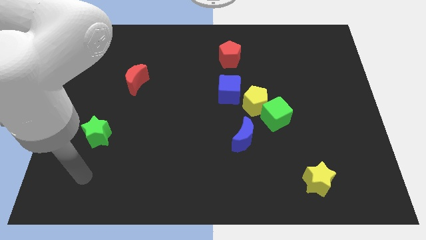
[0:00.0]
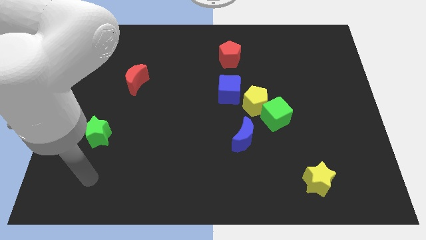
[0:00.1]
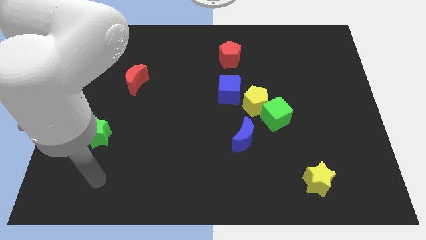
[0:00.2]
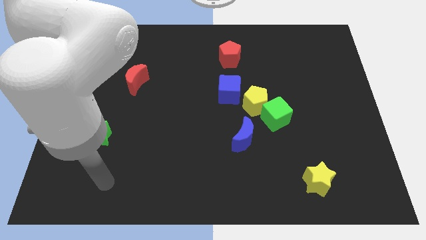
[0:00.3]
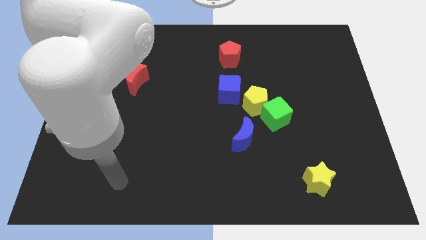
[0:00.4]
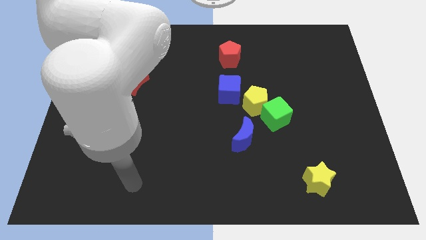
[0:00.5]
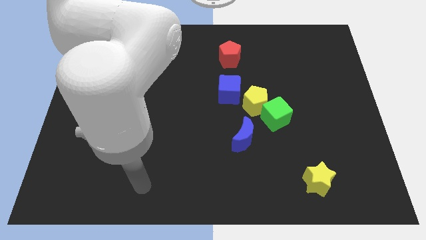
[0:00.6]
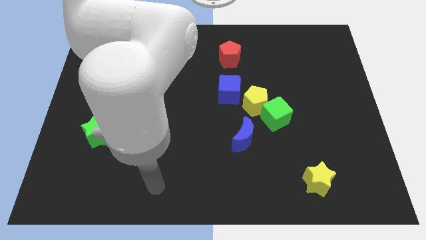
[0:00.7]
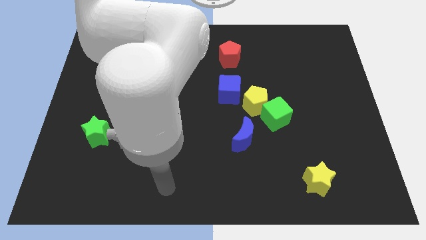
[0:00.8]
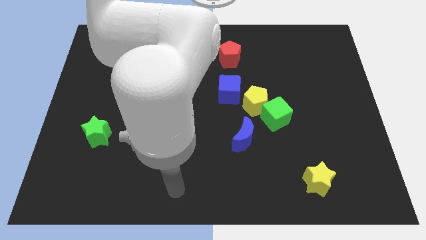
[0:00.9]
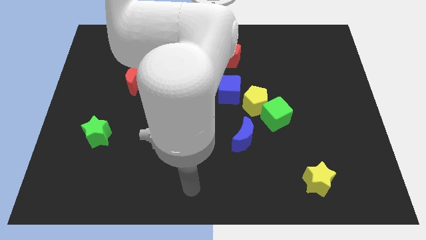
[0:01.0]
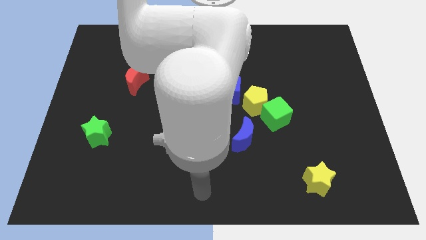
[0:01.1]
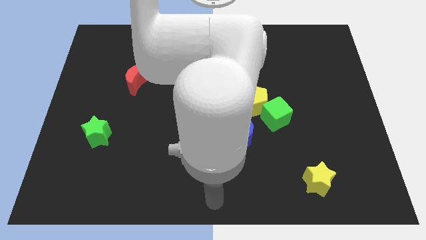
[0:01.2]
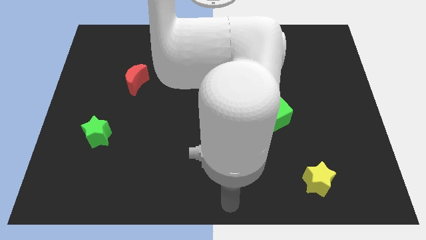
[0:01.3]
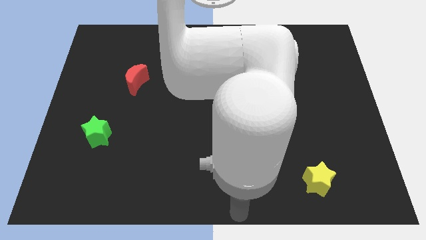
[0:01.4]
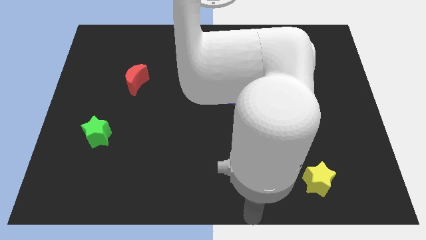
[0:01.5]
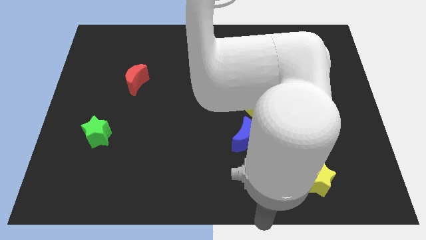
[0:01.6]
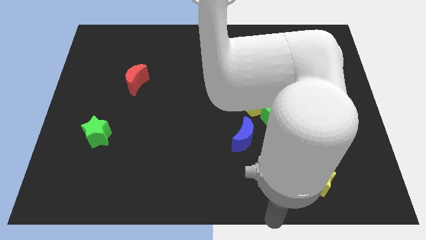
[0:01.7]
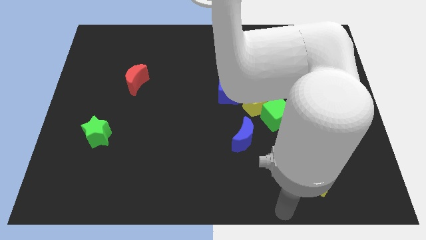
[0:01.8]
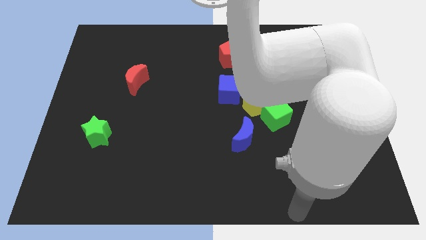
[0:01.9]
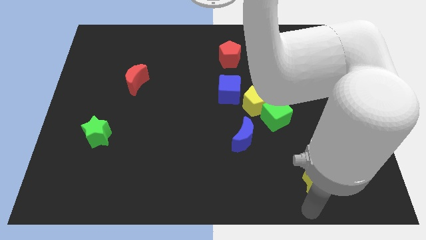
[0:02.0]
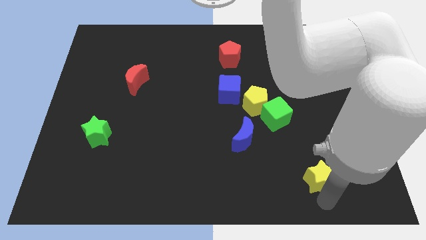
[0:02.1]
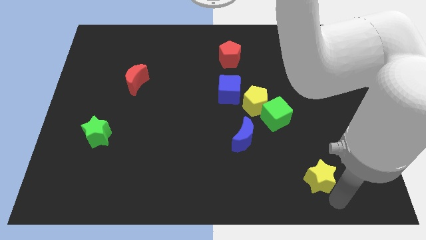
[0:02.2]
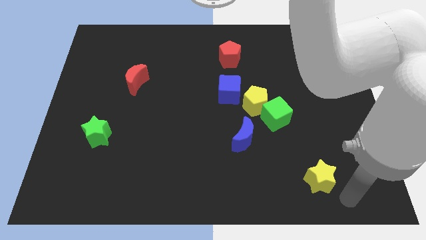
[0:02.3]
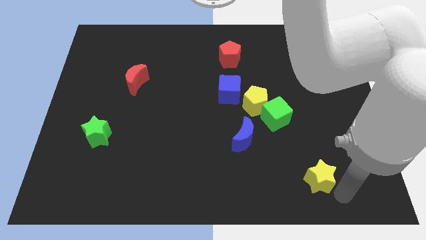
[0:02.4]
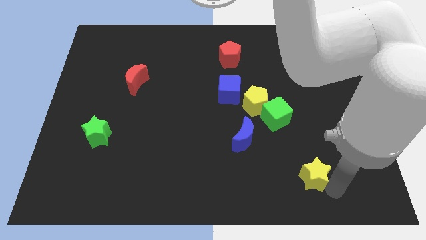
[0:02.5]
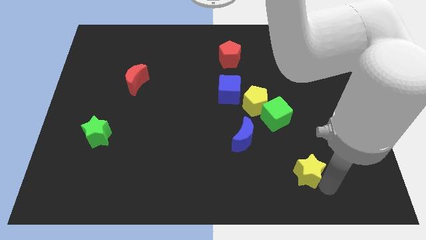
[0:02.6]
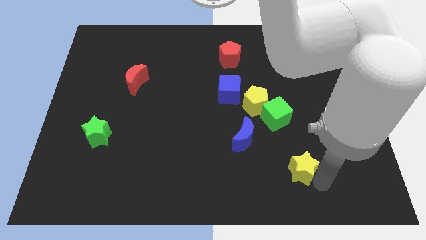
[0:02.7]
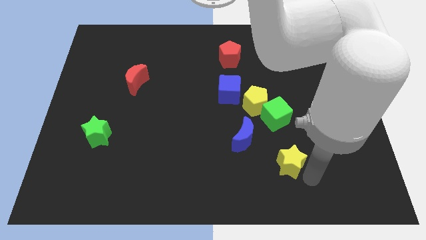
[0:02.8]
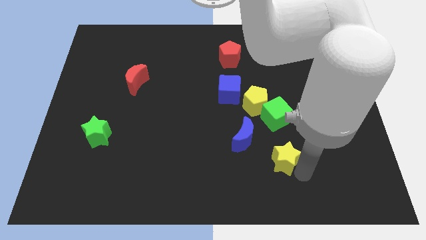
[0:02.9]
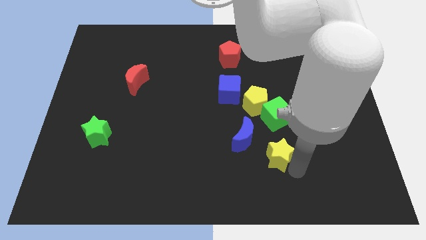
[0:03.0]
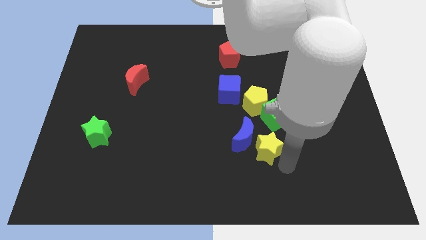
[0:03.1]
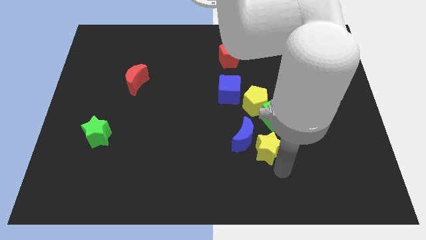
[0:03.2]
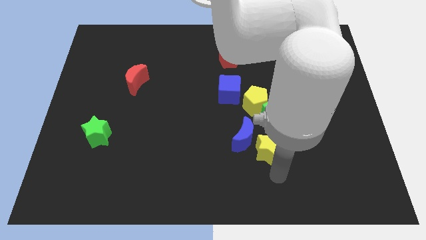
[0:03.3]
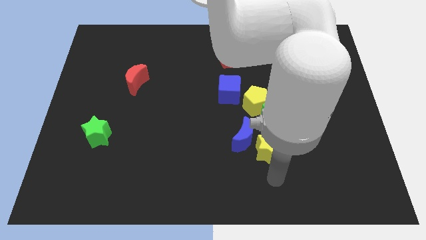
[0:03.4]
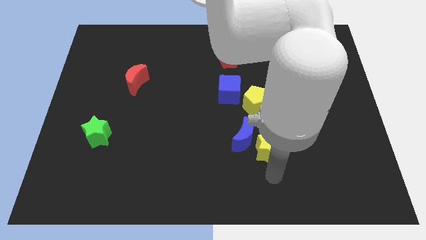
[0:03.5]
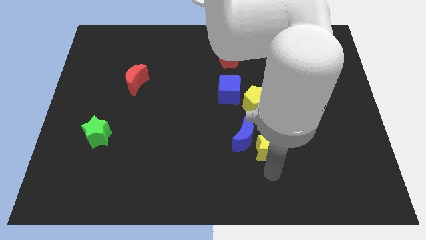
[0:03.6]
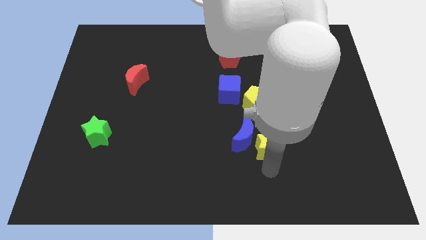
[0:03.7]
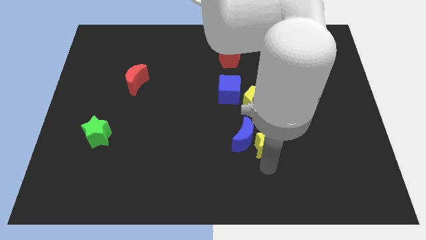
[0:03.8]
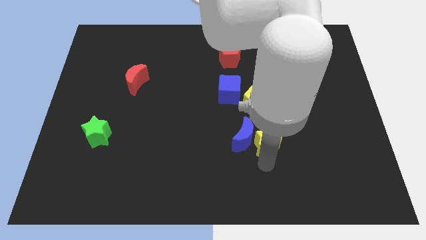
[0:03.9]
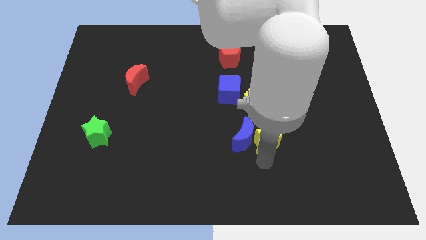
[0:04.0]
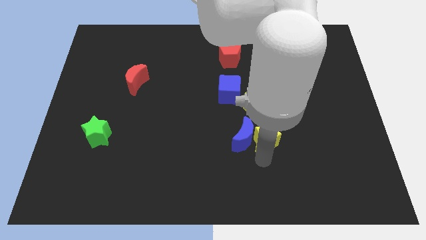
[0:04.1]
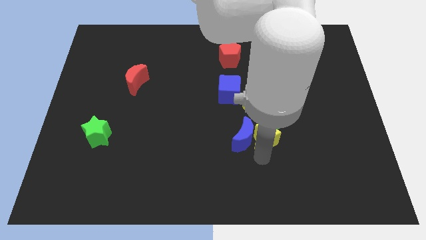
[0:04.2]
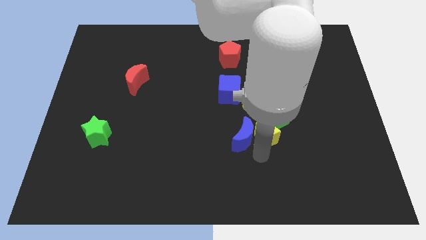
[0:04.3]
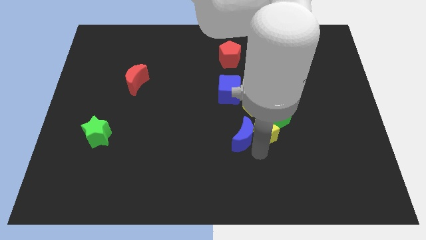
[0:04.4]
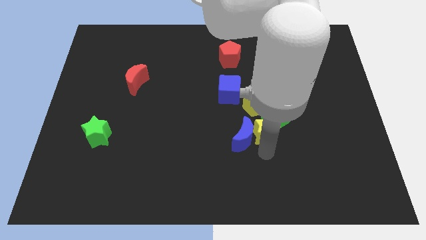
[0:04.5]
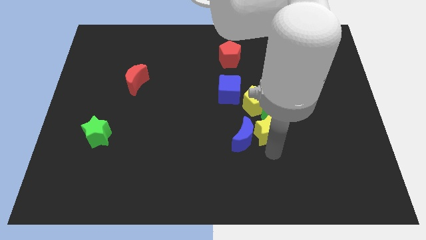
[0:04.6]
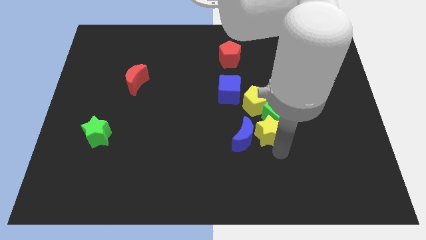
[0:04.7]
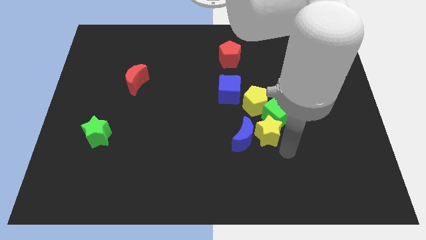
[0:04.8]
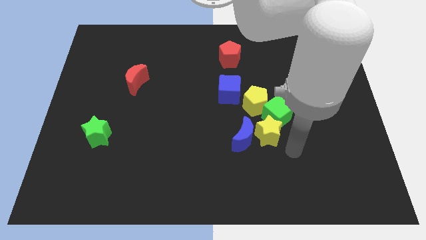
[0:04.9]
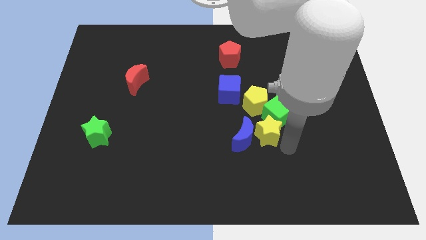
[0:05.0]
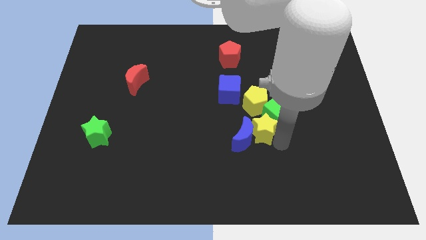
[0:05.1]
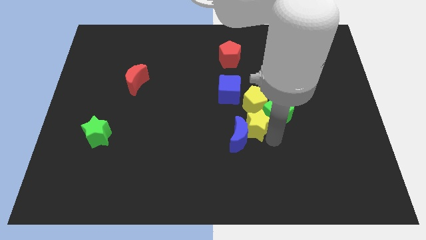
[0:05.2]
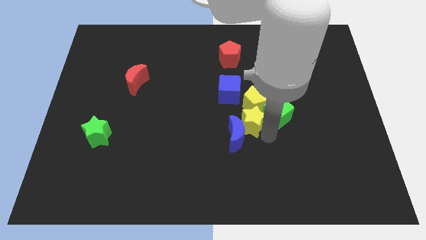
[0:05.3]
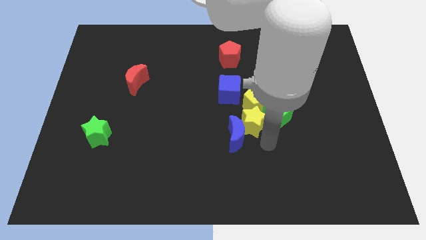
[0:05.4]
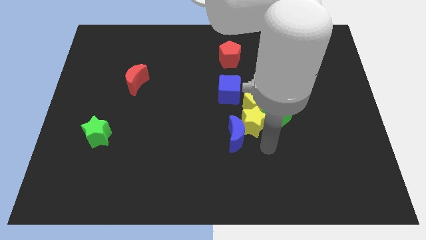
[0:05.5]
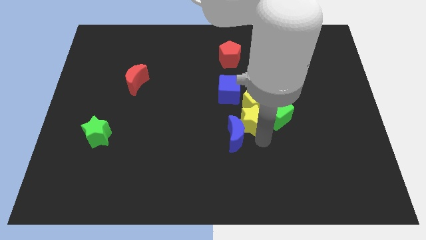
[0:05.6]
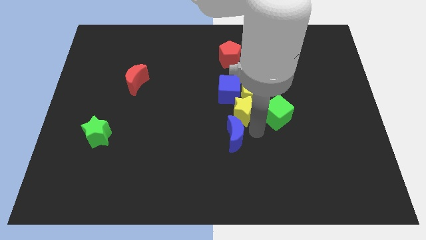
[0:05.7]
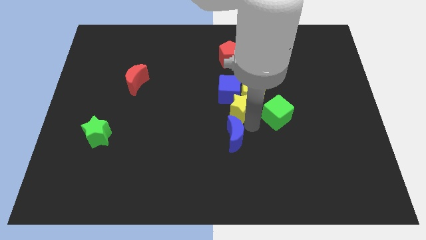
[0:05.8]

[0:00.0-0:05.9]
move the yellow star next to the blue cube
